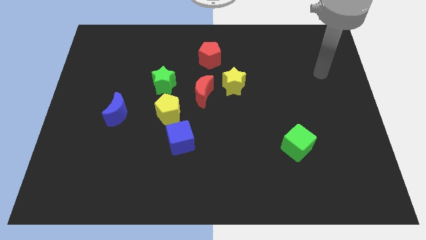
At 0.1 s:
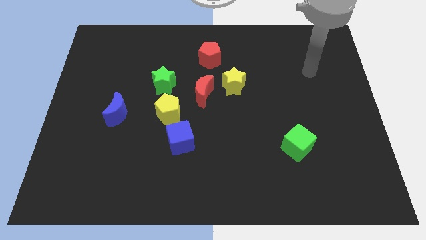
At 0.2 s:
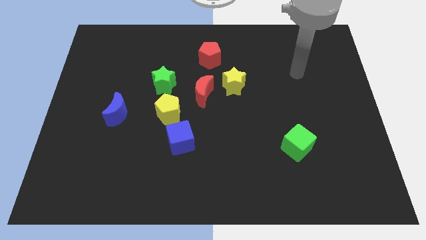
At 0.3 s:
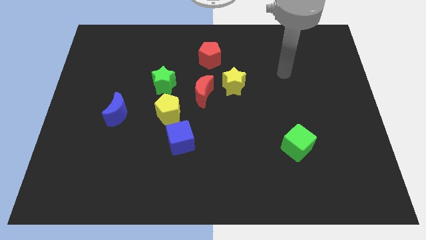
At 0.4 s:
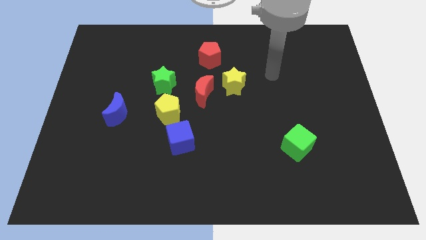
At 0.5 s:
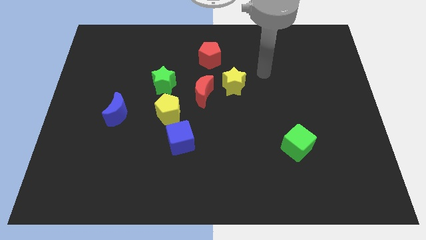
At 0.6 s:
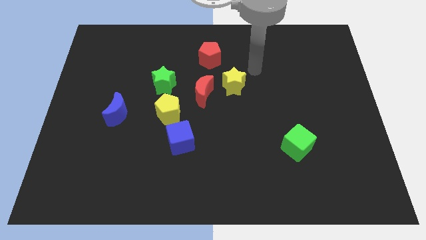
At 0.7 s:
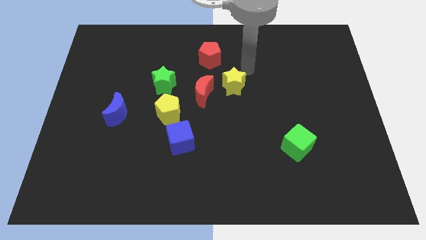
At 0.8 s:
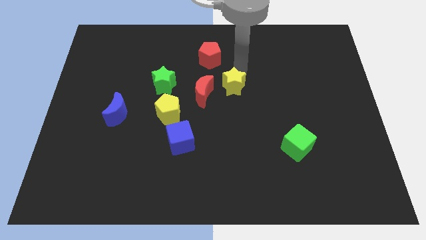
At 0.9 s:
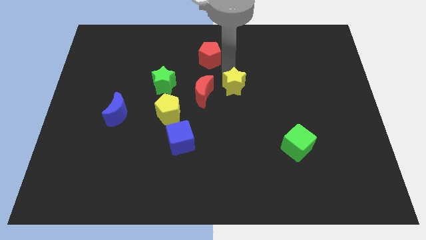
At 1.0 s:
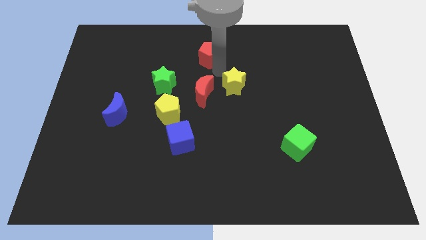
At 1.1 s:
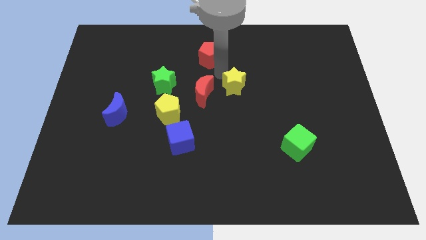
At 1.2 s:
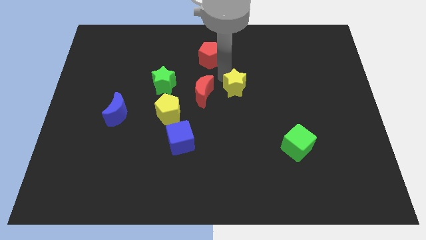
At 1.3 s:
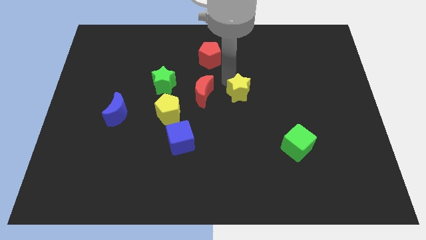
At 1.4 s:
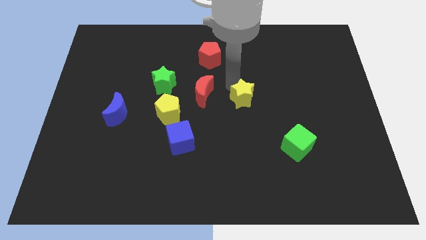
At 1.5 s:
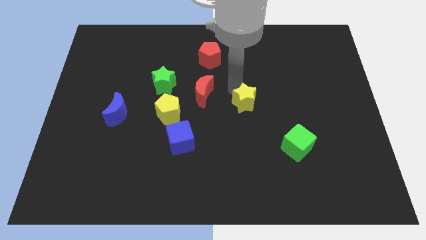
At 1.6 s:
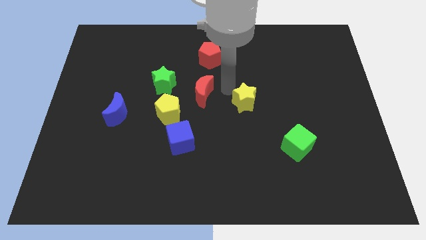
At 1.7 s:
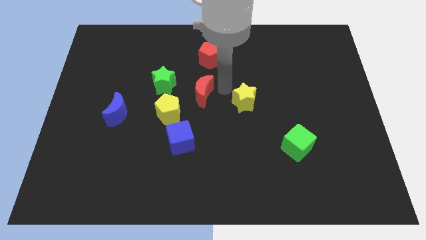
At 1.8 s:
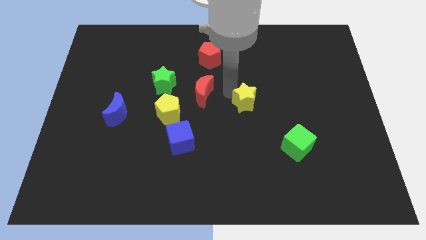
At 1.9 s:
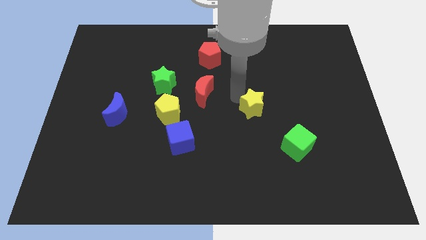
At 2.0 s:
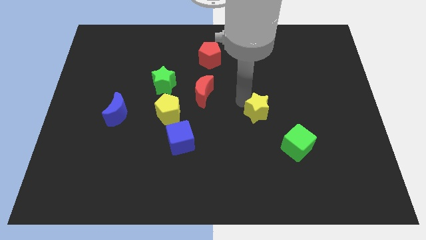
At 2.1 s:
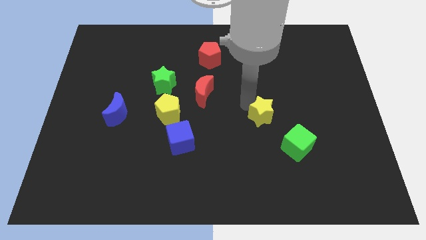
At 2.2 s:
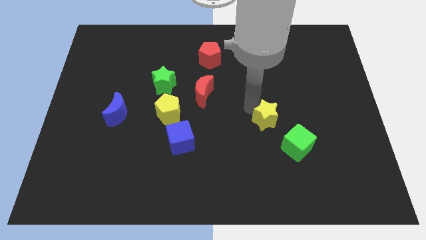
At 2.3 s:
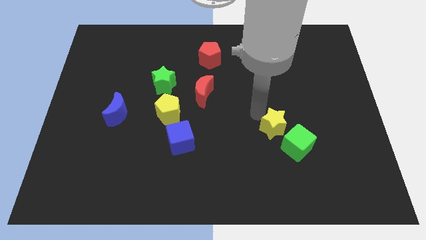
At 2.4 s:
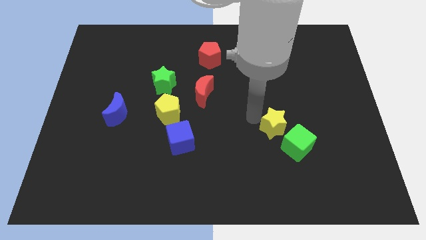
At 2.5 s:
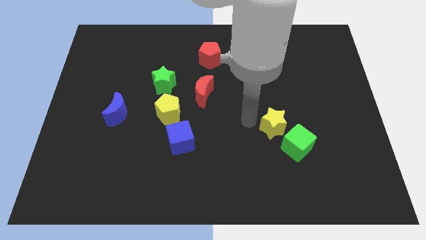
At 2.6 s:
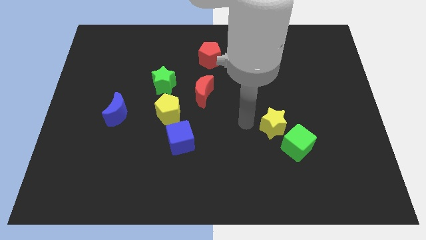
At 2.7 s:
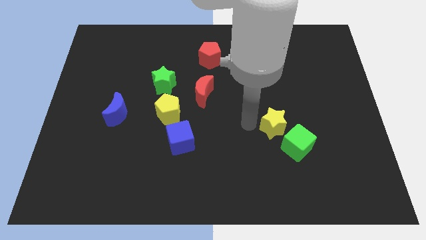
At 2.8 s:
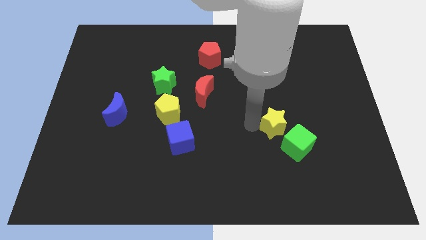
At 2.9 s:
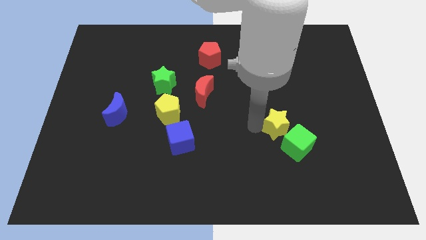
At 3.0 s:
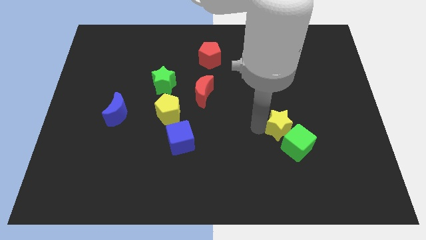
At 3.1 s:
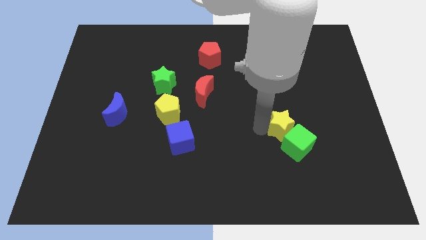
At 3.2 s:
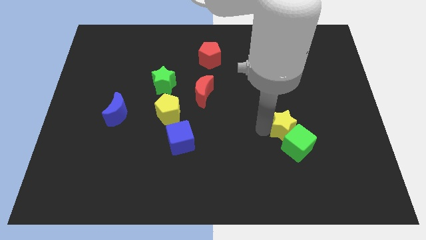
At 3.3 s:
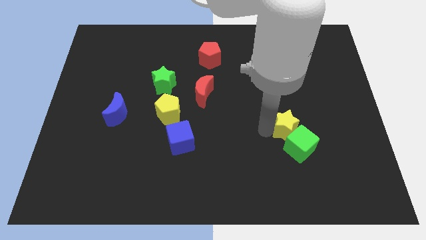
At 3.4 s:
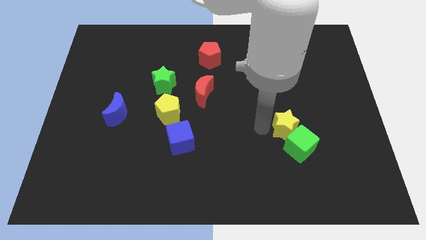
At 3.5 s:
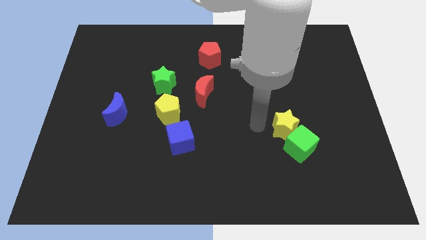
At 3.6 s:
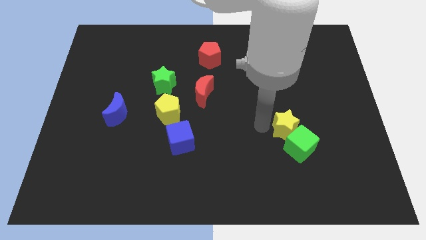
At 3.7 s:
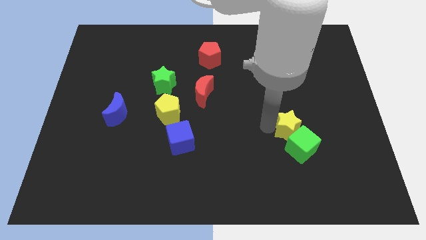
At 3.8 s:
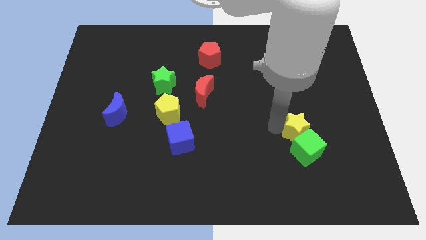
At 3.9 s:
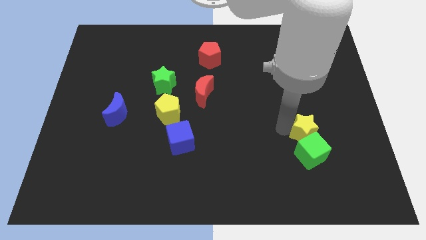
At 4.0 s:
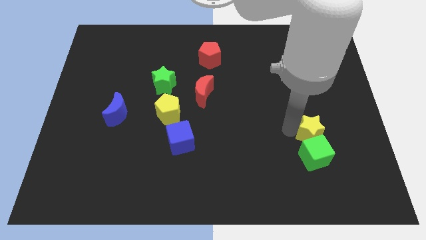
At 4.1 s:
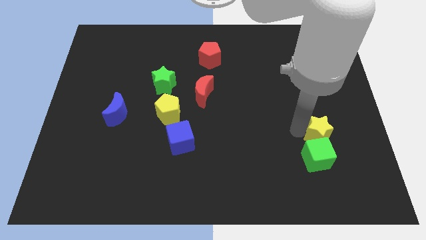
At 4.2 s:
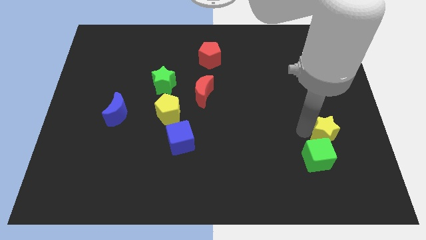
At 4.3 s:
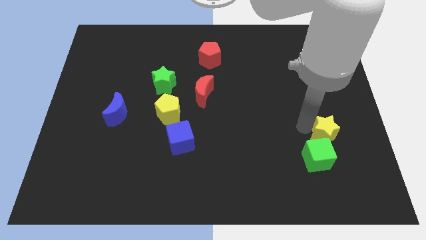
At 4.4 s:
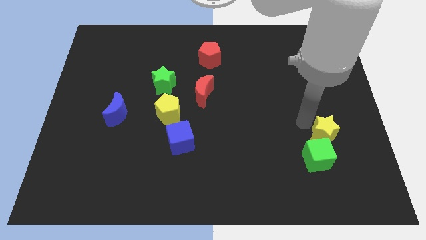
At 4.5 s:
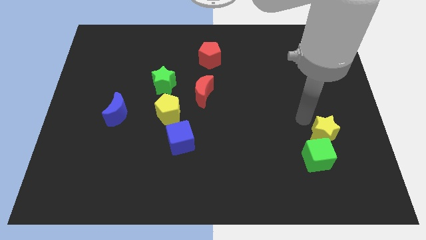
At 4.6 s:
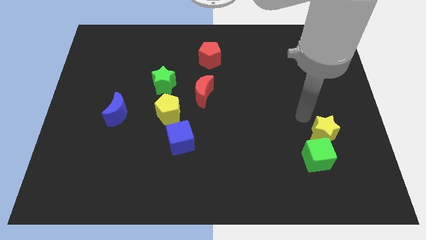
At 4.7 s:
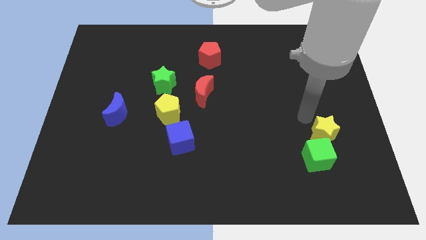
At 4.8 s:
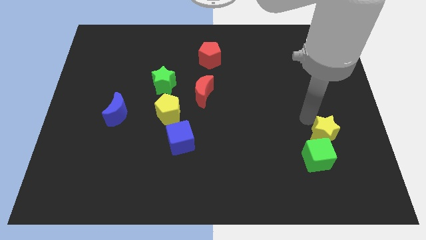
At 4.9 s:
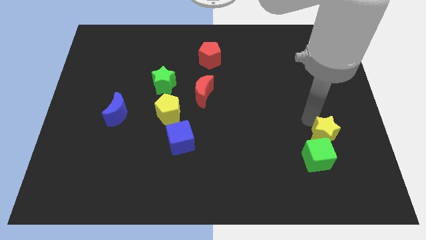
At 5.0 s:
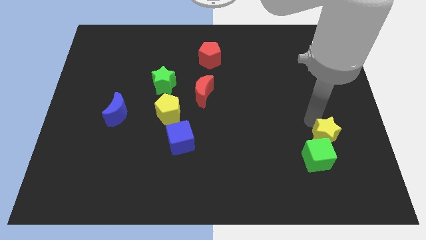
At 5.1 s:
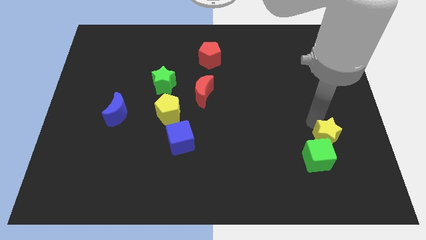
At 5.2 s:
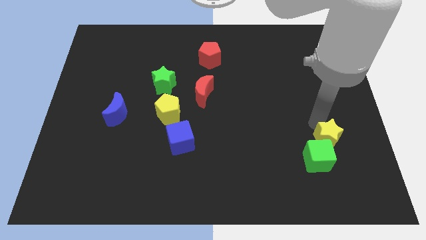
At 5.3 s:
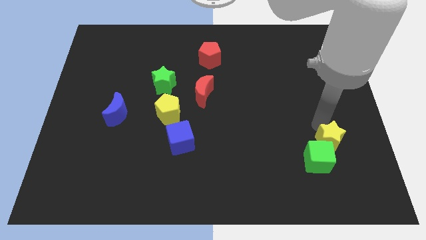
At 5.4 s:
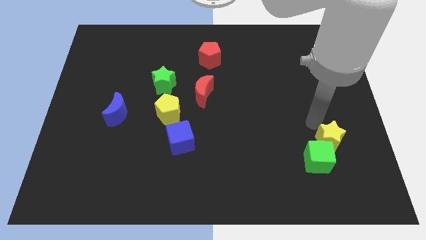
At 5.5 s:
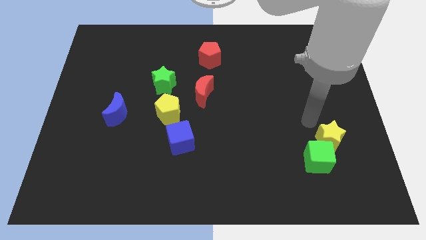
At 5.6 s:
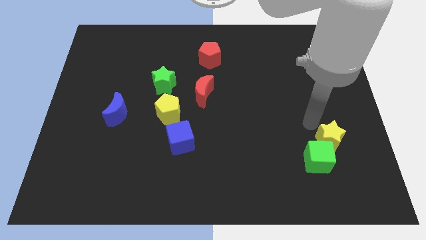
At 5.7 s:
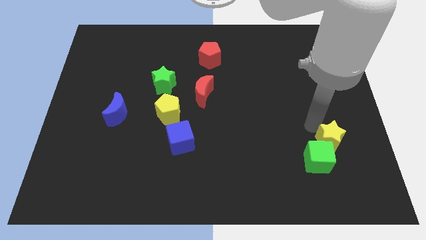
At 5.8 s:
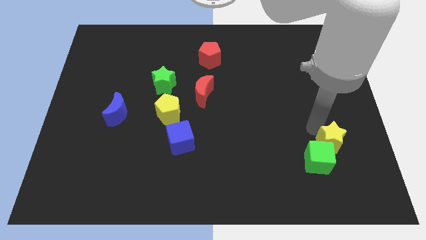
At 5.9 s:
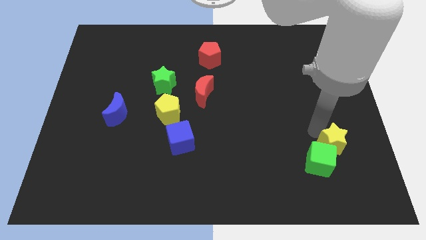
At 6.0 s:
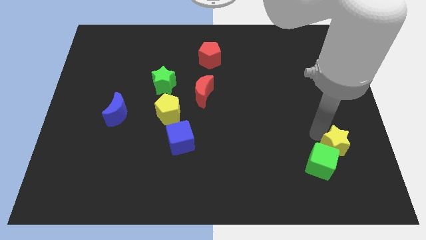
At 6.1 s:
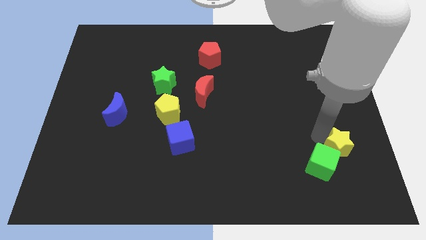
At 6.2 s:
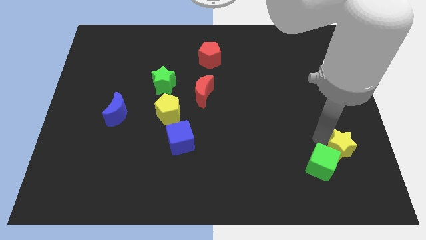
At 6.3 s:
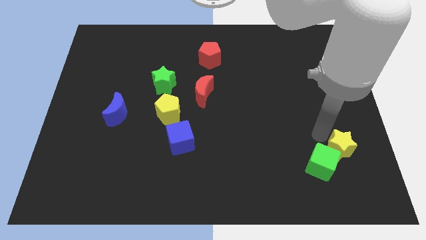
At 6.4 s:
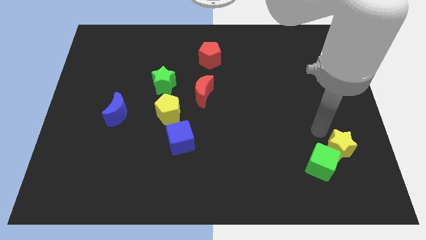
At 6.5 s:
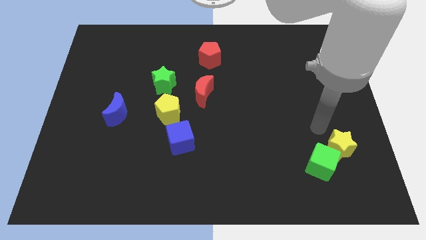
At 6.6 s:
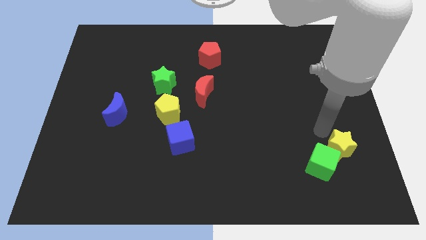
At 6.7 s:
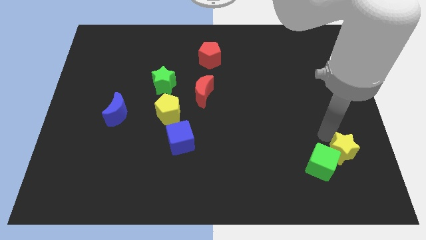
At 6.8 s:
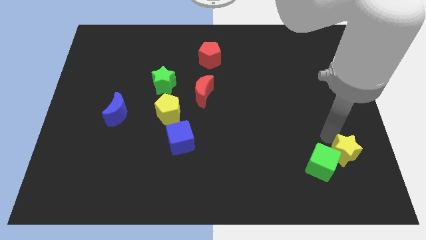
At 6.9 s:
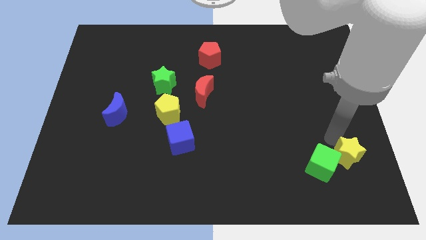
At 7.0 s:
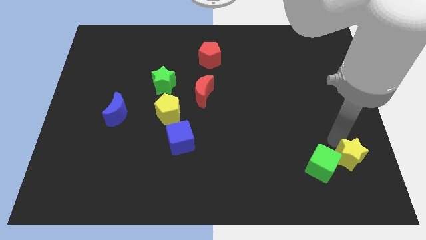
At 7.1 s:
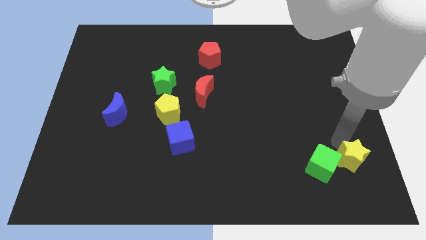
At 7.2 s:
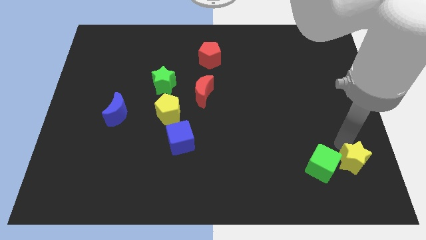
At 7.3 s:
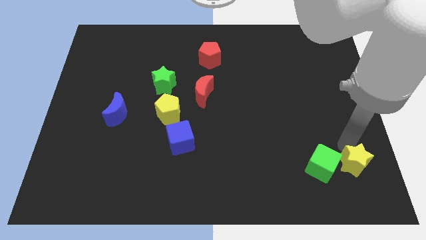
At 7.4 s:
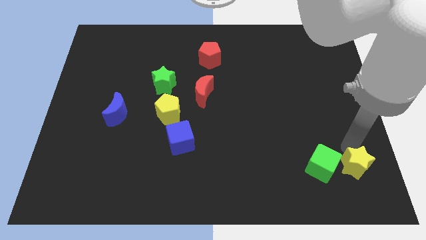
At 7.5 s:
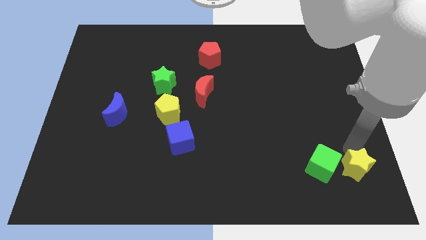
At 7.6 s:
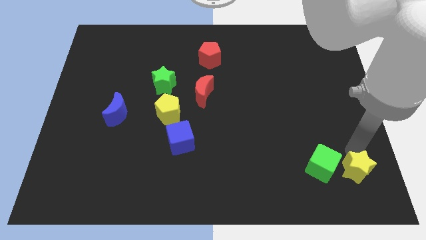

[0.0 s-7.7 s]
put the yellow star to the bottom right corner
